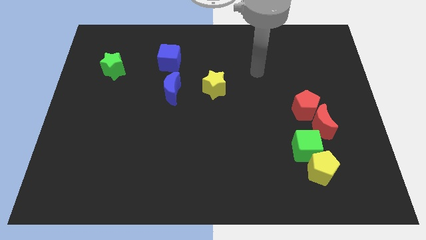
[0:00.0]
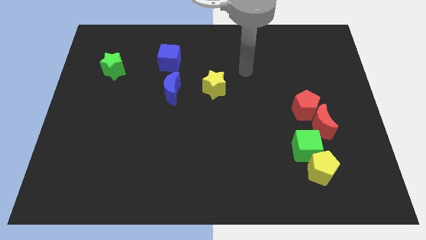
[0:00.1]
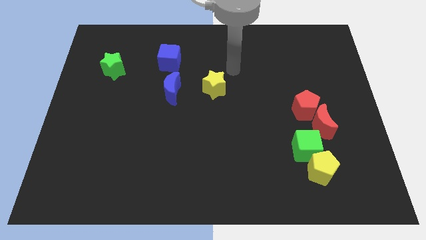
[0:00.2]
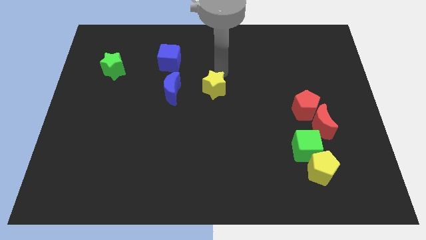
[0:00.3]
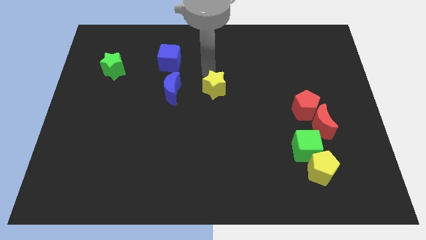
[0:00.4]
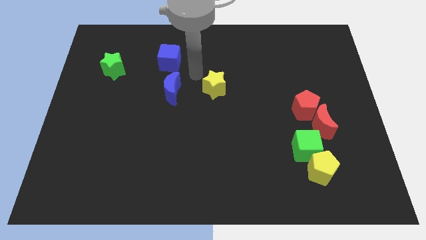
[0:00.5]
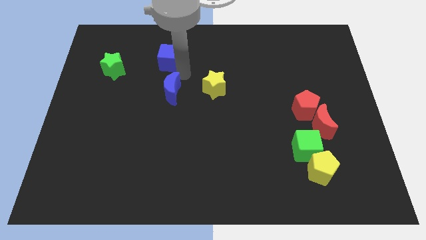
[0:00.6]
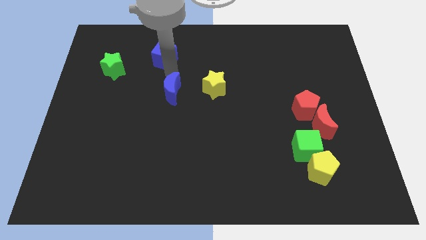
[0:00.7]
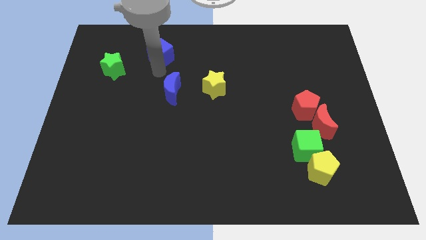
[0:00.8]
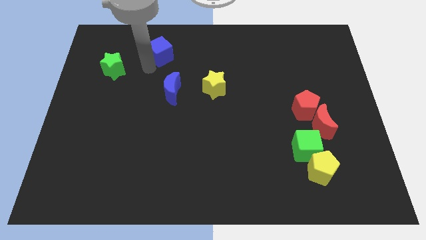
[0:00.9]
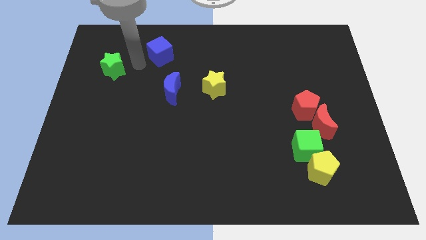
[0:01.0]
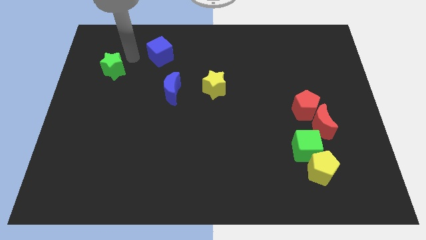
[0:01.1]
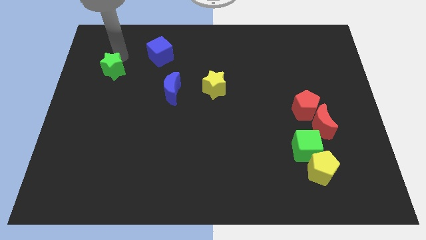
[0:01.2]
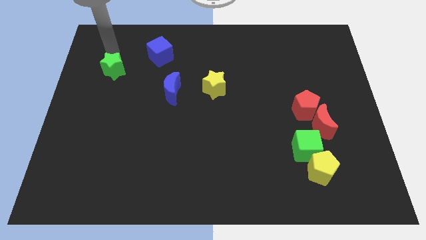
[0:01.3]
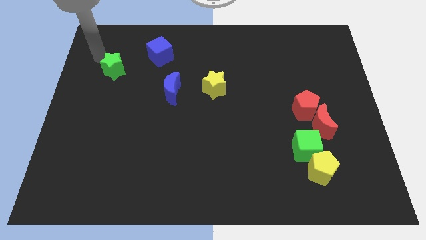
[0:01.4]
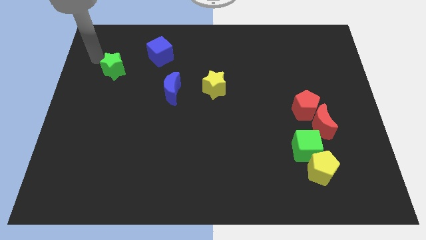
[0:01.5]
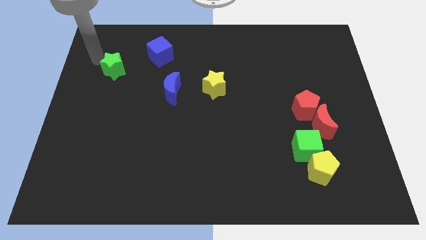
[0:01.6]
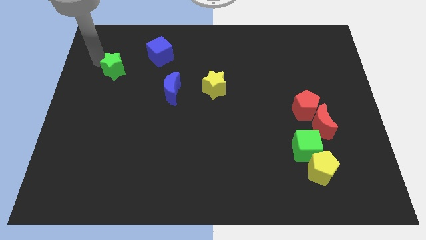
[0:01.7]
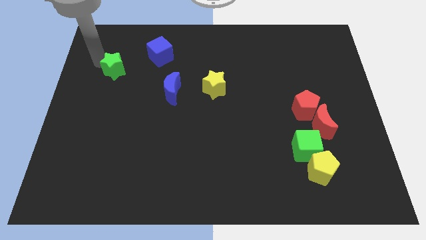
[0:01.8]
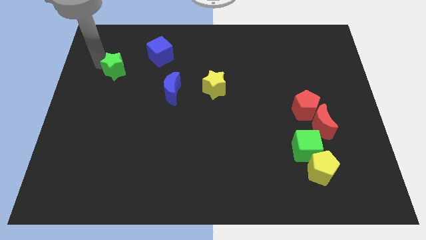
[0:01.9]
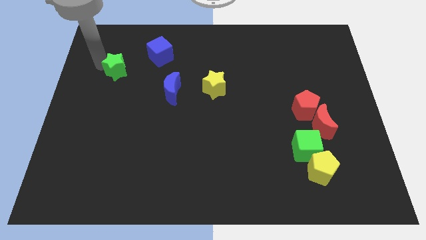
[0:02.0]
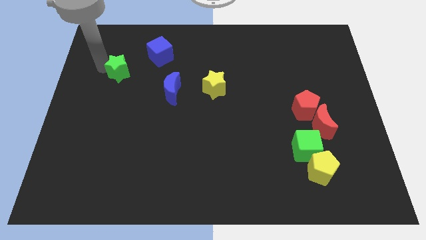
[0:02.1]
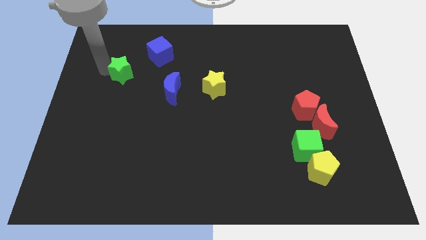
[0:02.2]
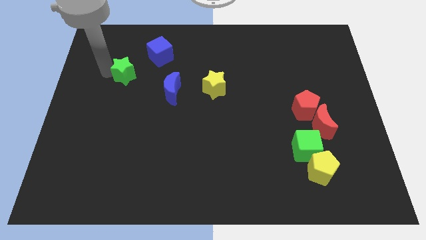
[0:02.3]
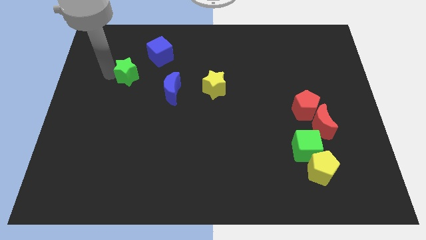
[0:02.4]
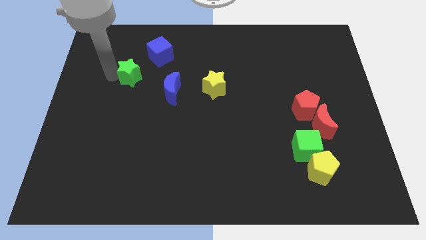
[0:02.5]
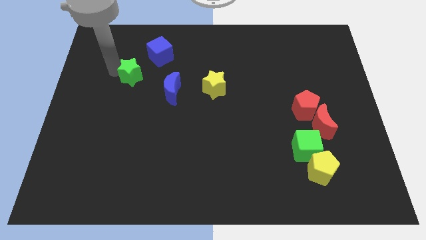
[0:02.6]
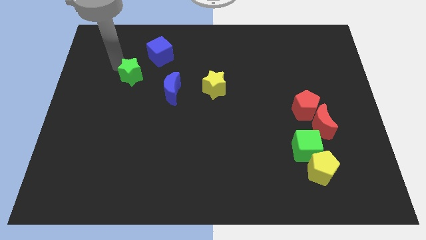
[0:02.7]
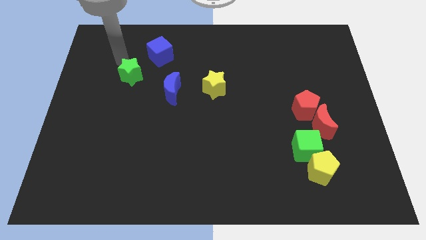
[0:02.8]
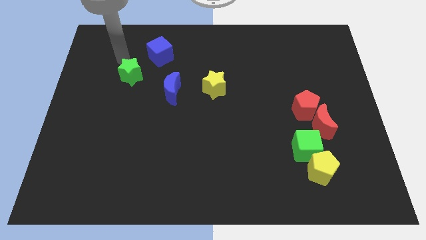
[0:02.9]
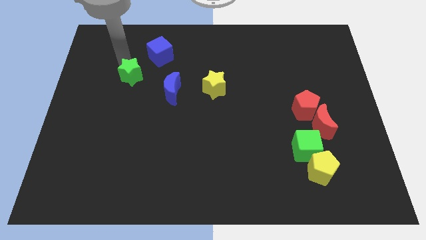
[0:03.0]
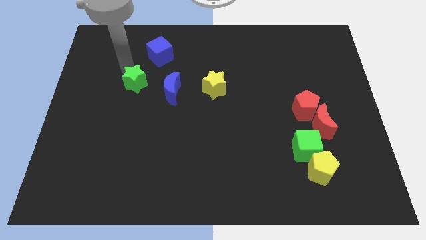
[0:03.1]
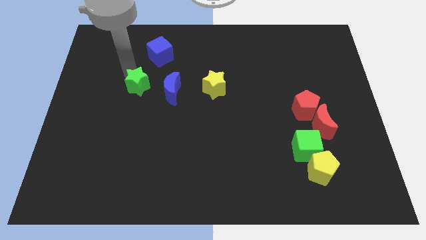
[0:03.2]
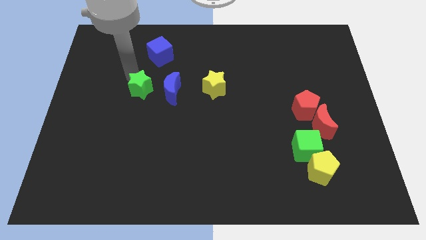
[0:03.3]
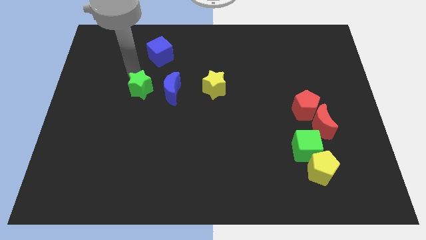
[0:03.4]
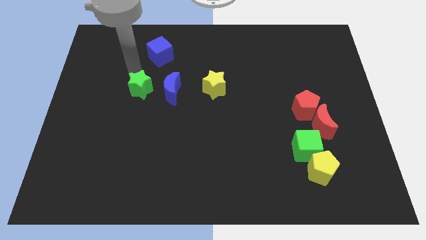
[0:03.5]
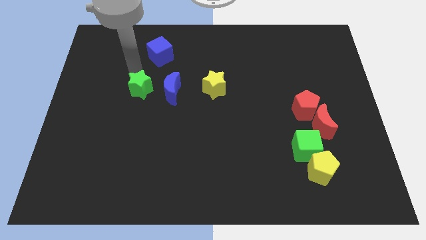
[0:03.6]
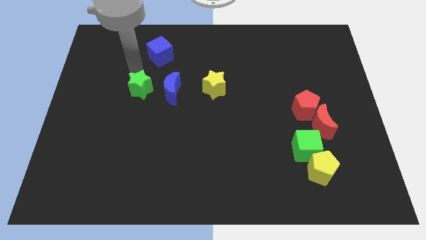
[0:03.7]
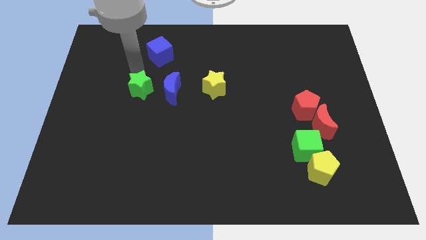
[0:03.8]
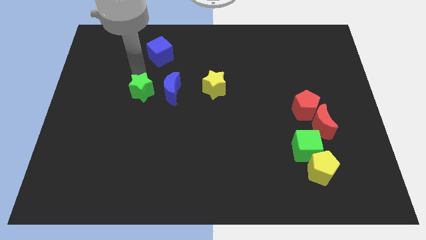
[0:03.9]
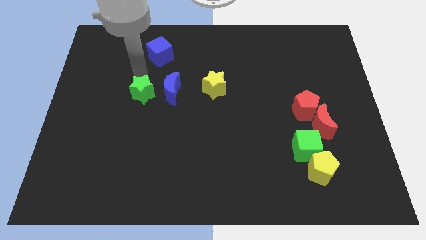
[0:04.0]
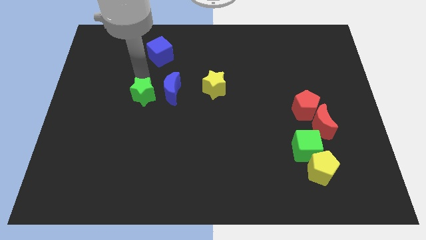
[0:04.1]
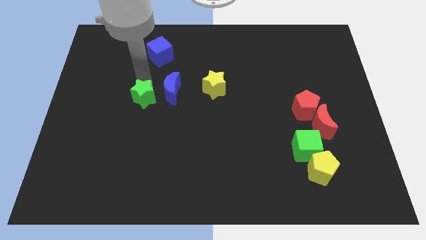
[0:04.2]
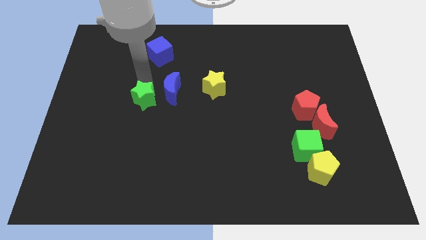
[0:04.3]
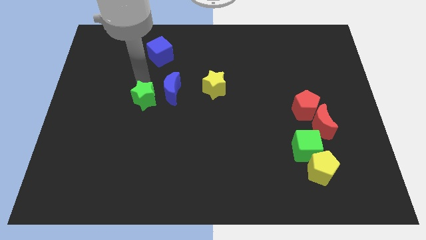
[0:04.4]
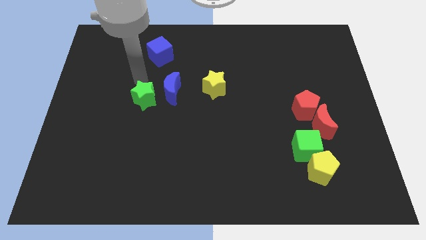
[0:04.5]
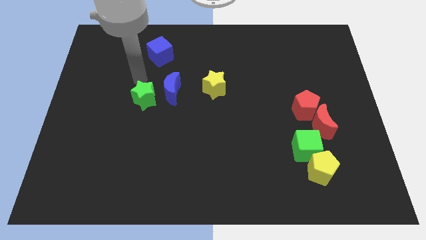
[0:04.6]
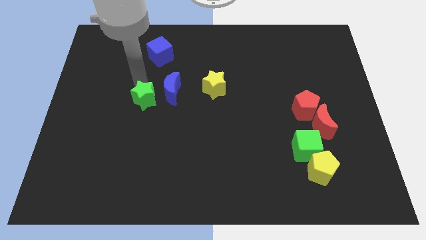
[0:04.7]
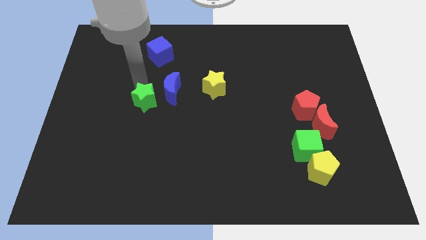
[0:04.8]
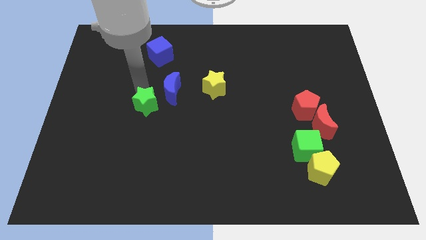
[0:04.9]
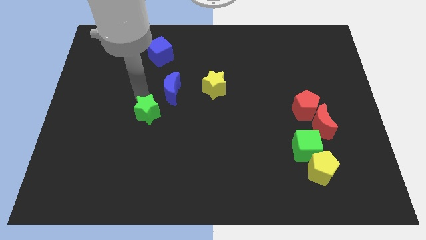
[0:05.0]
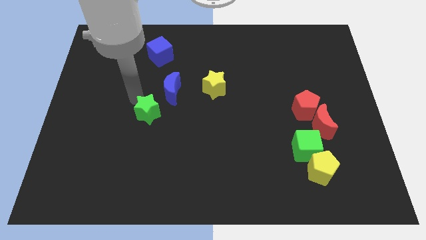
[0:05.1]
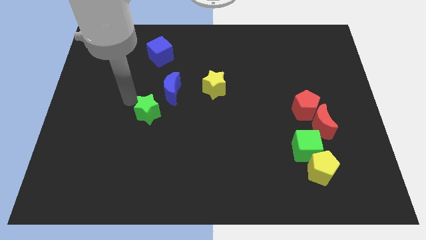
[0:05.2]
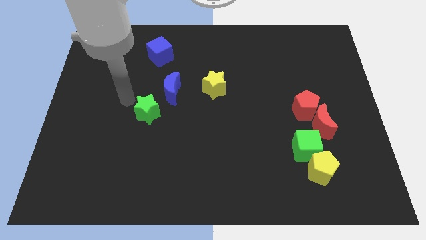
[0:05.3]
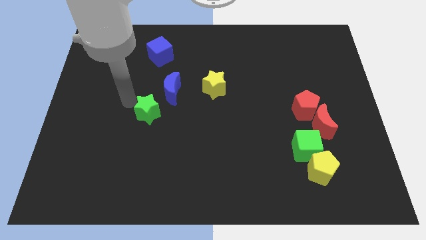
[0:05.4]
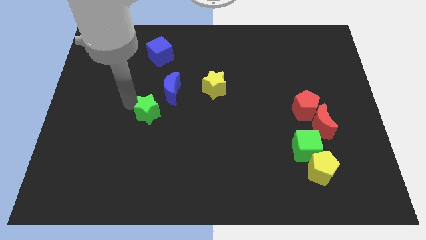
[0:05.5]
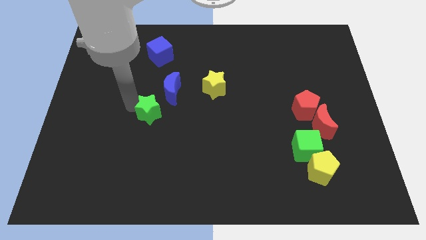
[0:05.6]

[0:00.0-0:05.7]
push the green star to the bottom side of the blue moon

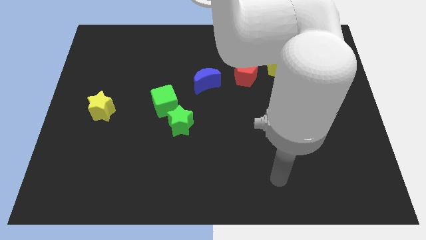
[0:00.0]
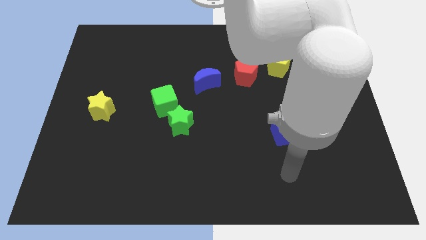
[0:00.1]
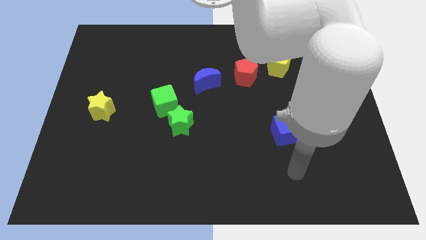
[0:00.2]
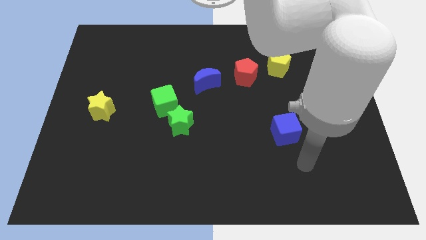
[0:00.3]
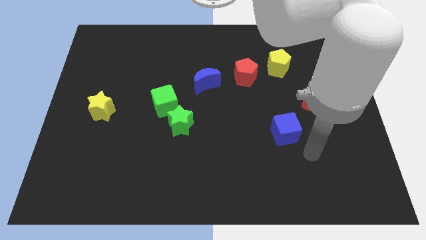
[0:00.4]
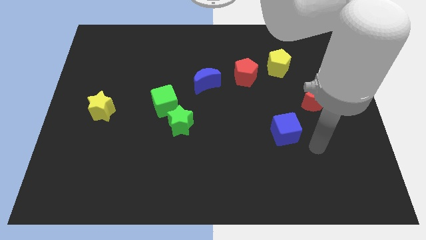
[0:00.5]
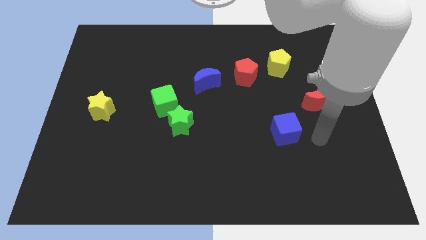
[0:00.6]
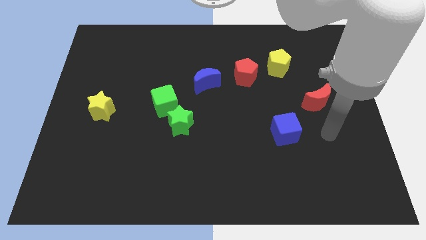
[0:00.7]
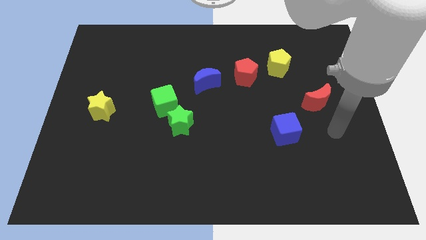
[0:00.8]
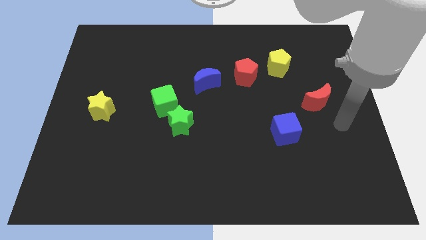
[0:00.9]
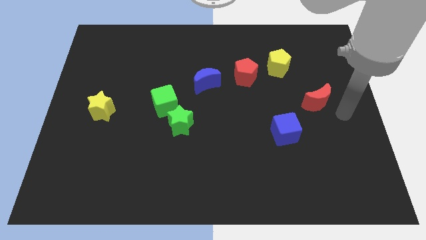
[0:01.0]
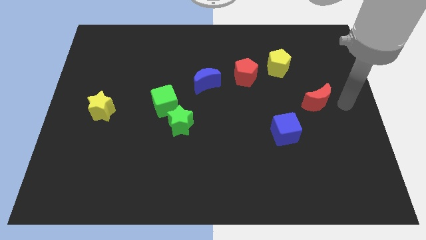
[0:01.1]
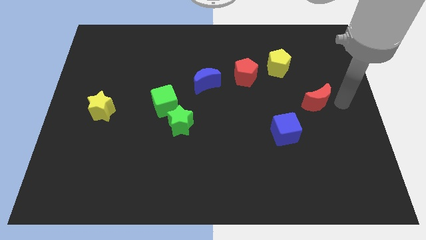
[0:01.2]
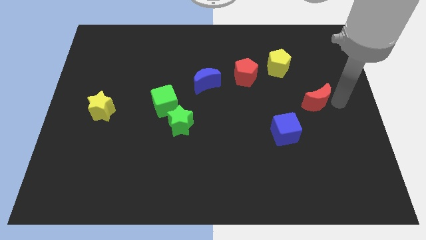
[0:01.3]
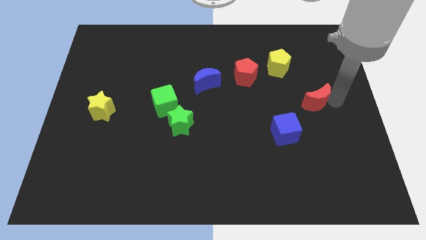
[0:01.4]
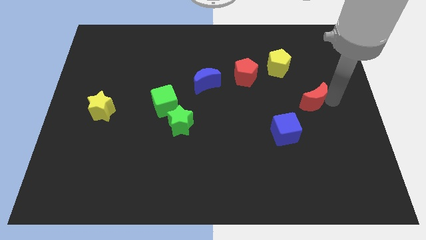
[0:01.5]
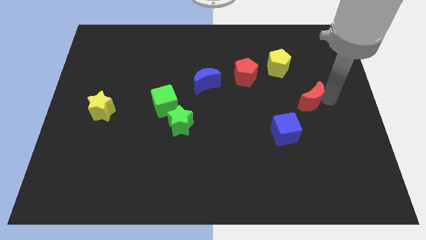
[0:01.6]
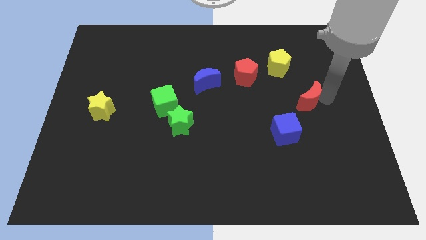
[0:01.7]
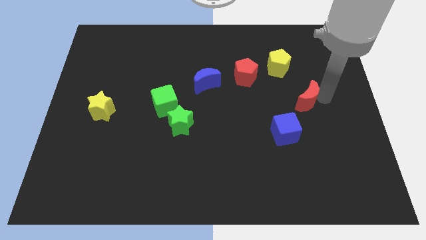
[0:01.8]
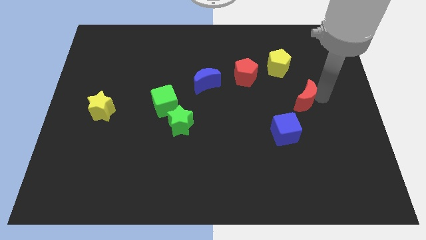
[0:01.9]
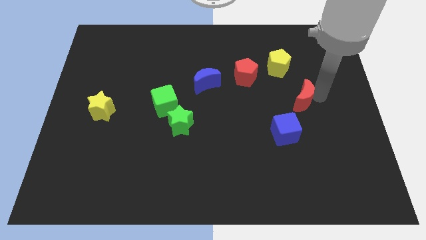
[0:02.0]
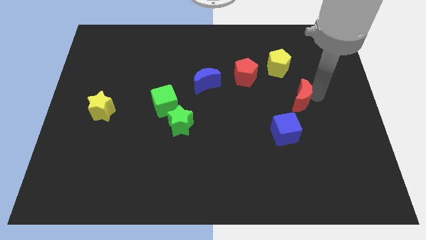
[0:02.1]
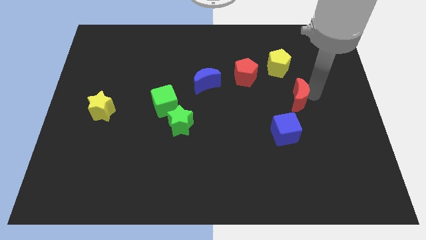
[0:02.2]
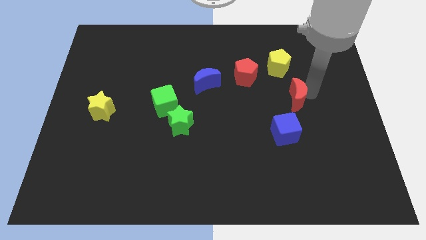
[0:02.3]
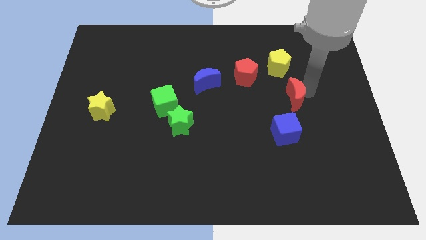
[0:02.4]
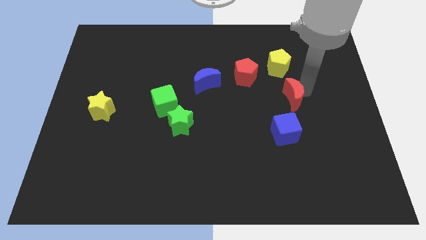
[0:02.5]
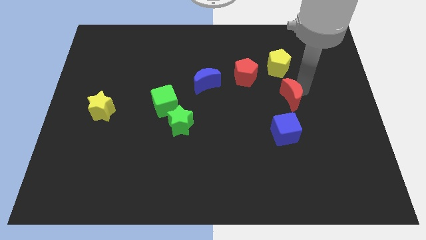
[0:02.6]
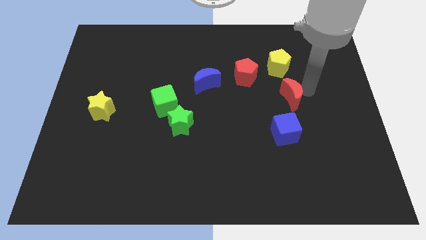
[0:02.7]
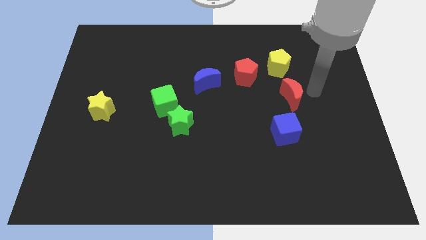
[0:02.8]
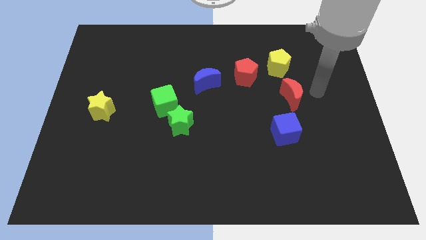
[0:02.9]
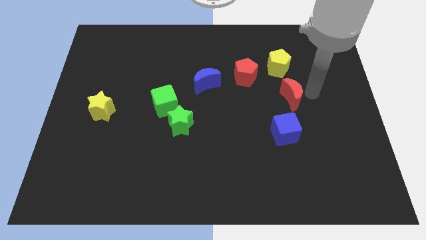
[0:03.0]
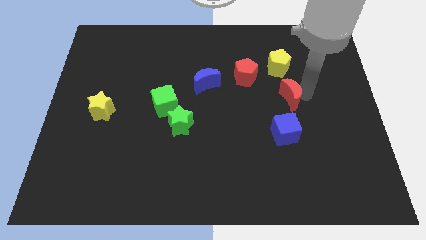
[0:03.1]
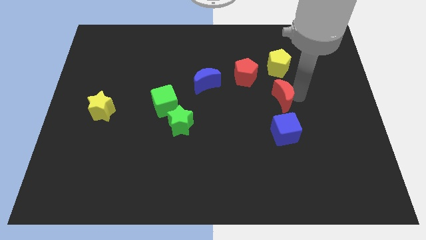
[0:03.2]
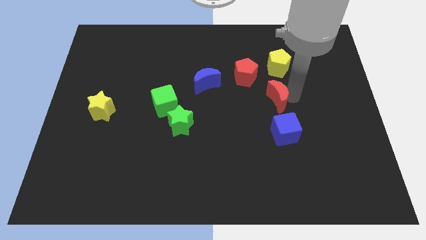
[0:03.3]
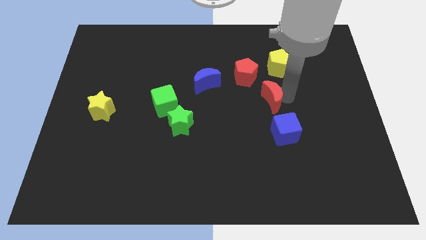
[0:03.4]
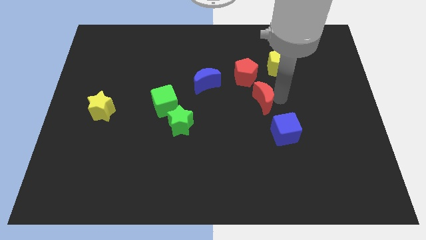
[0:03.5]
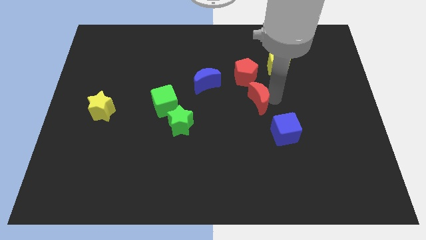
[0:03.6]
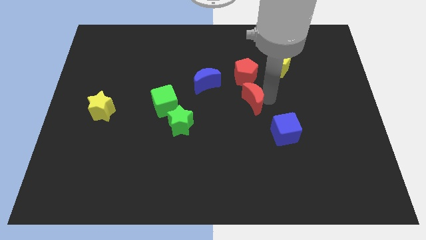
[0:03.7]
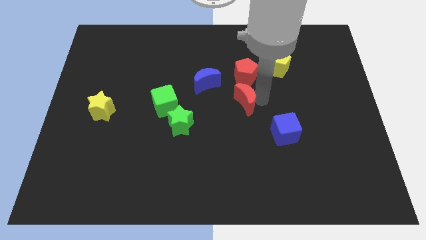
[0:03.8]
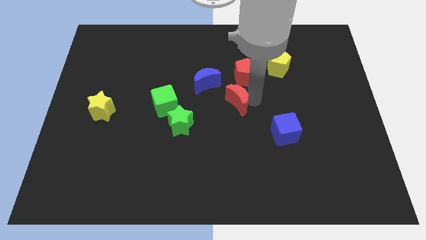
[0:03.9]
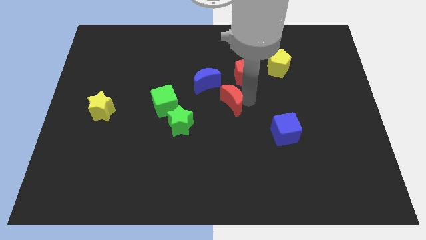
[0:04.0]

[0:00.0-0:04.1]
slide the red moon to the right side of the green cube
